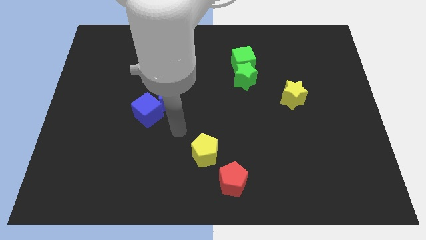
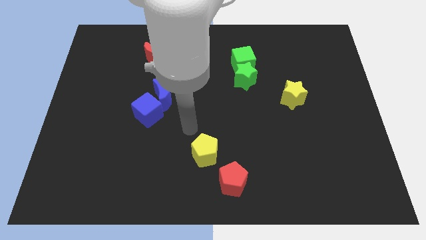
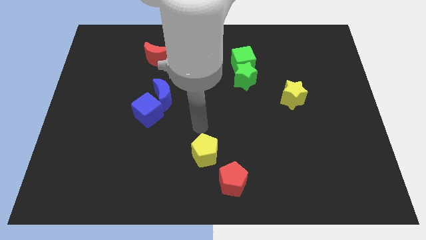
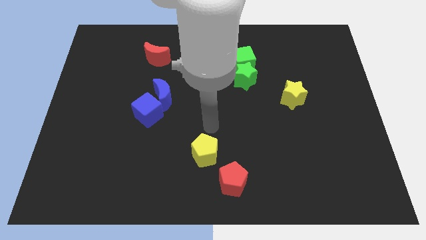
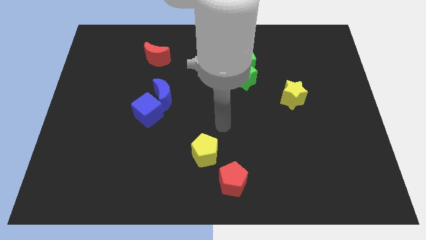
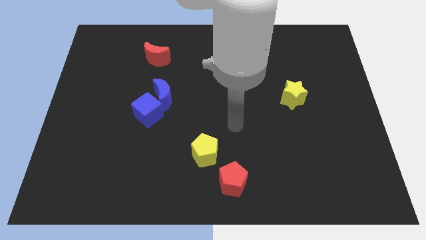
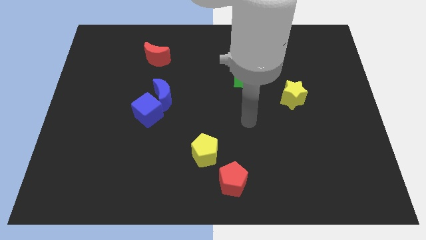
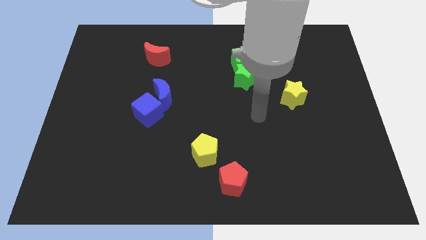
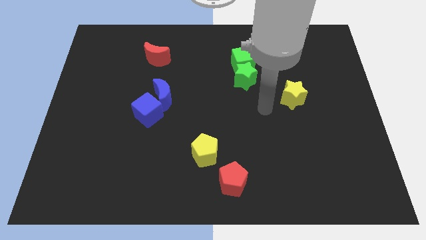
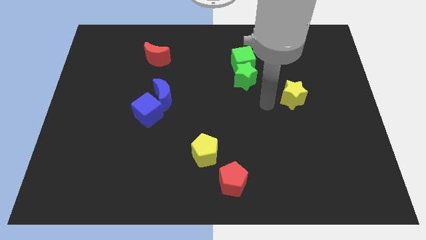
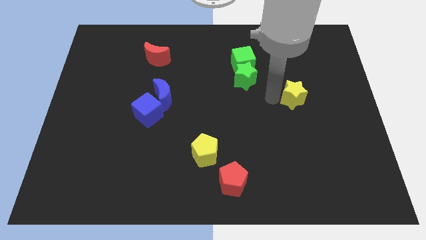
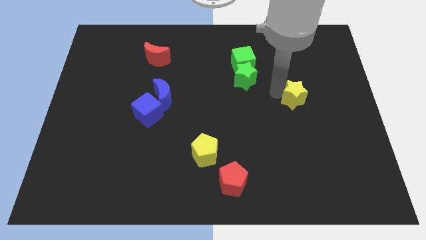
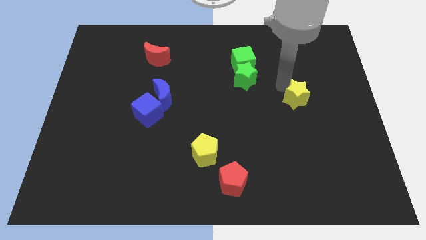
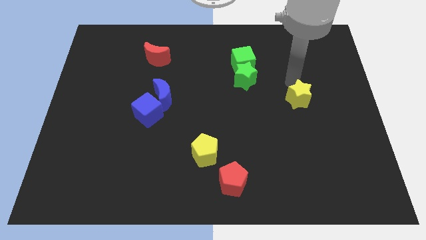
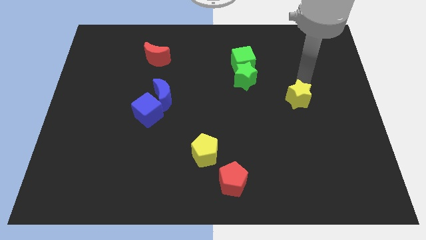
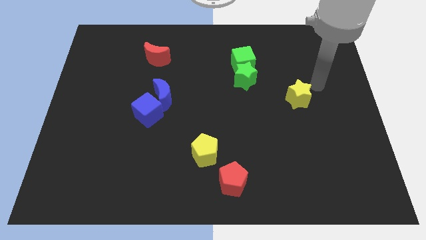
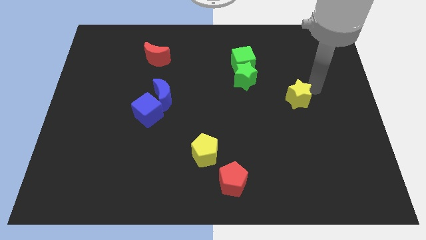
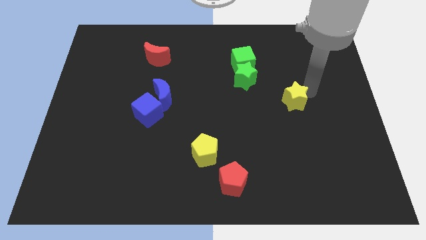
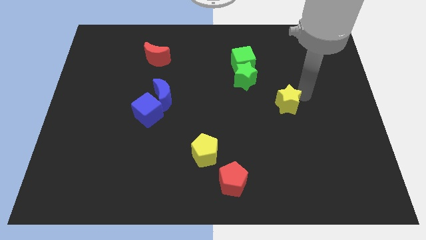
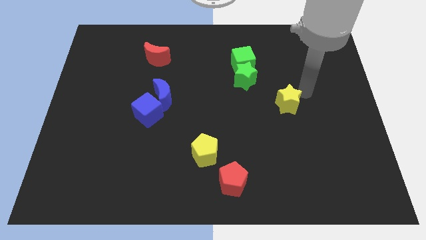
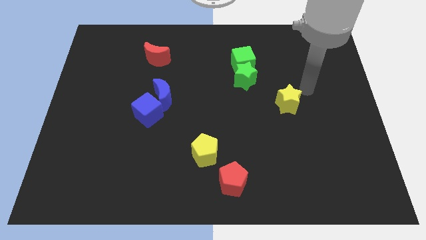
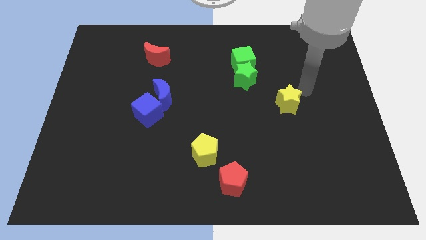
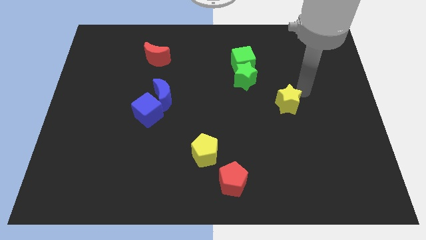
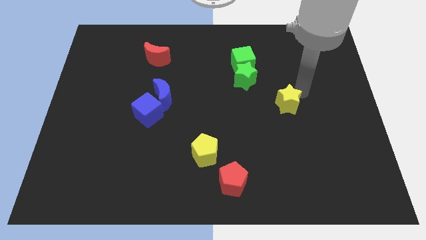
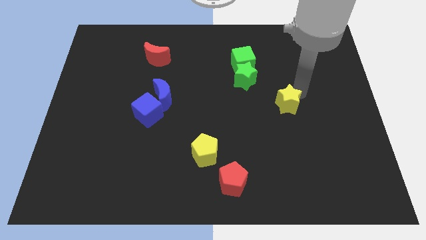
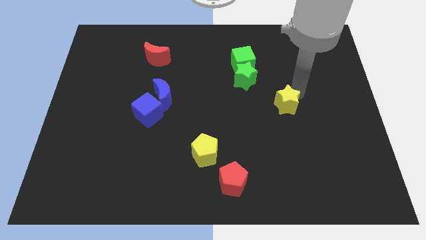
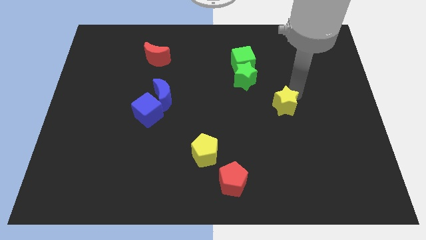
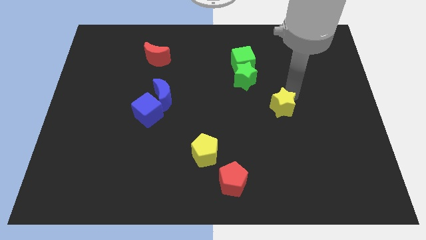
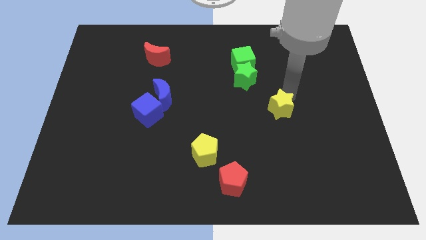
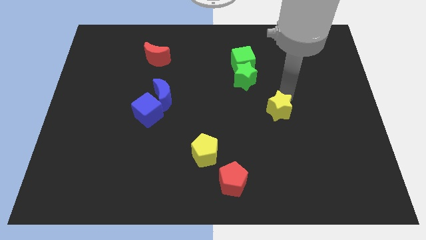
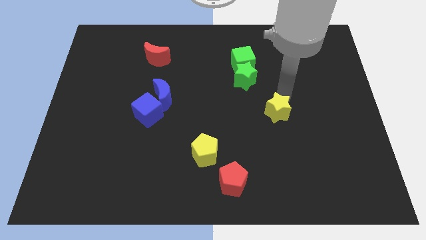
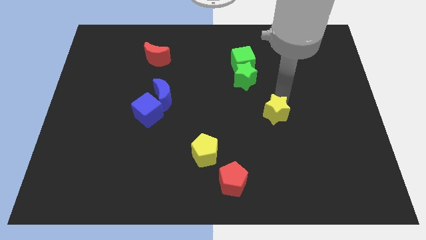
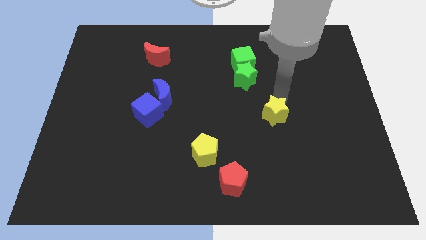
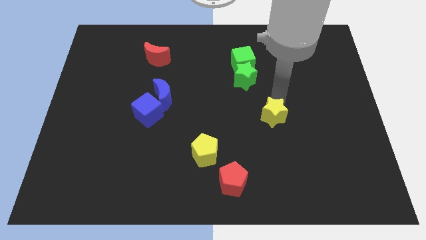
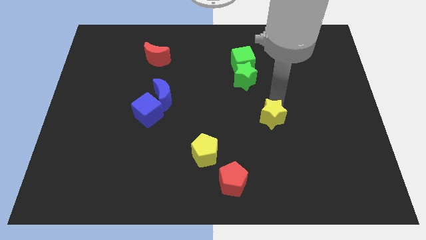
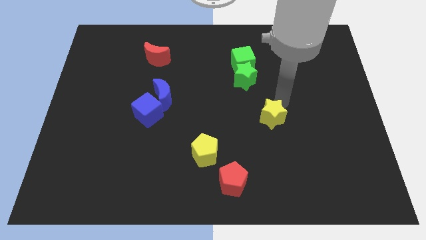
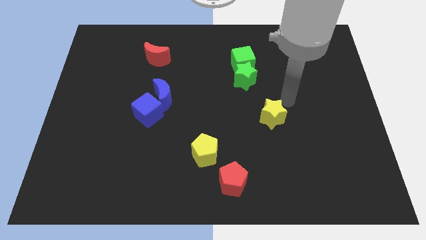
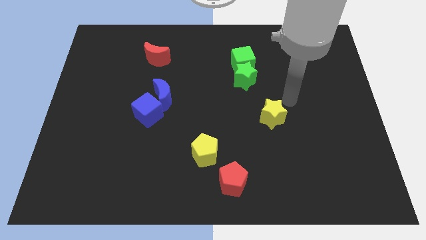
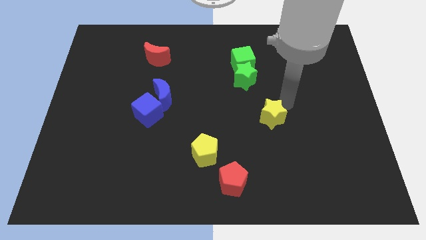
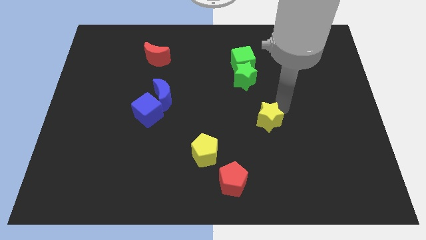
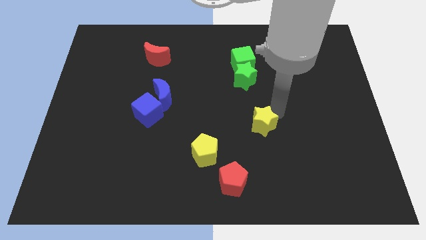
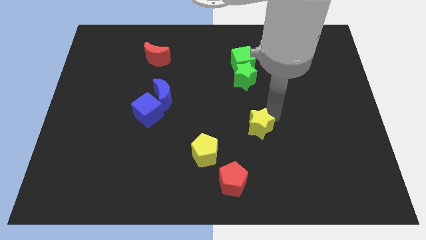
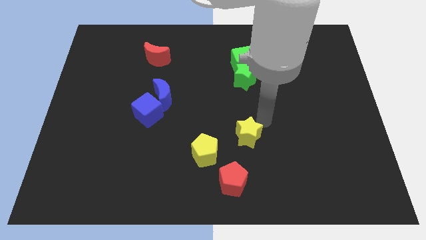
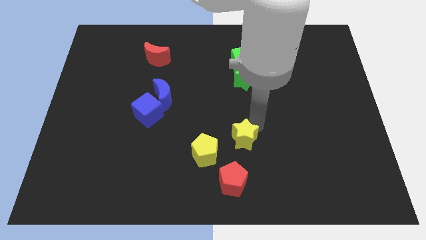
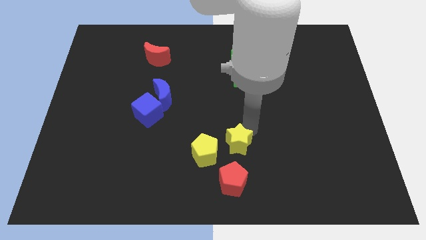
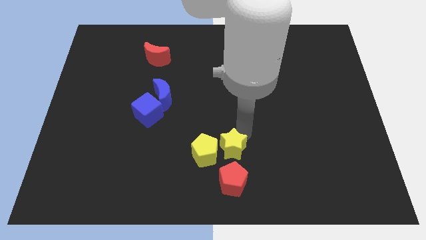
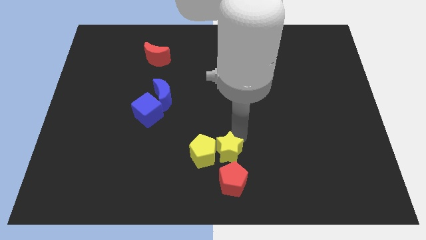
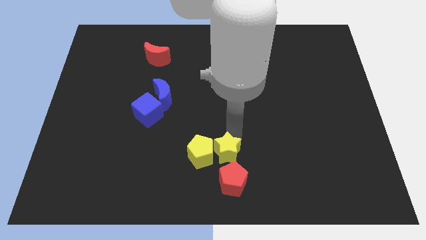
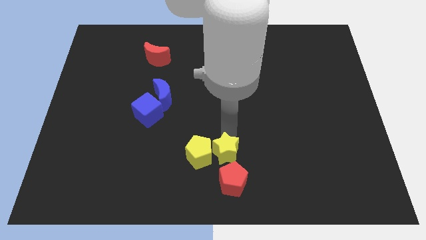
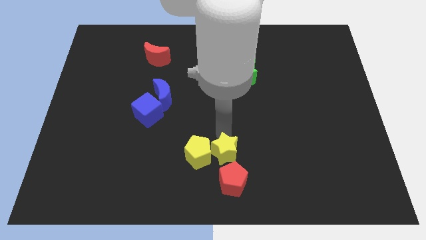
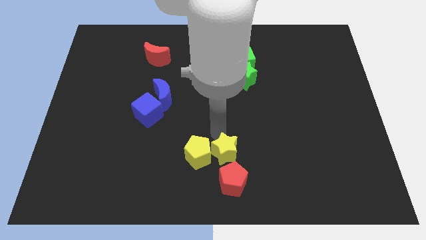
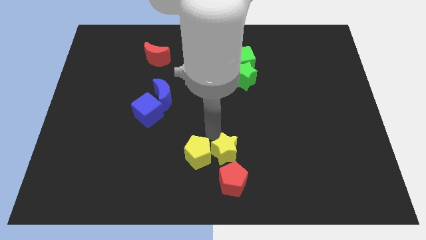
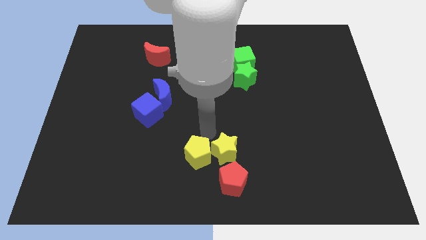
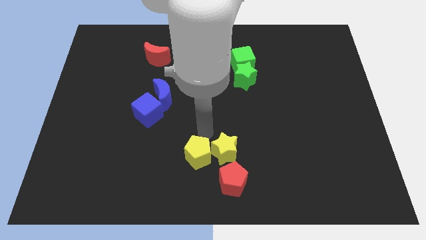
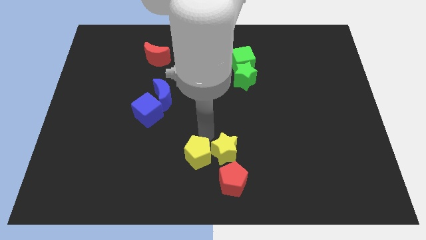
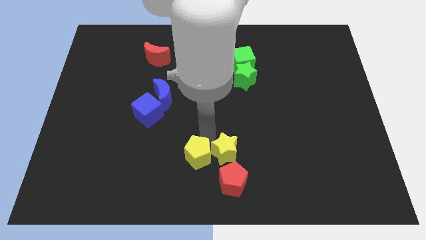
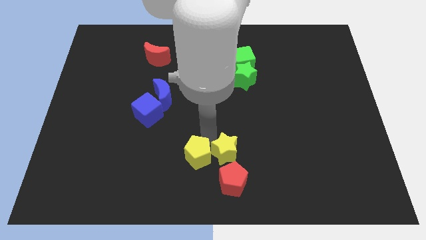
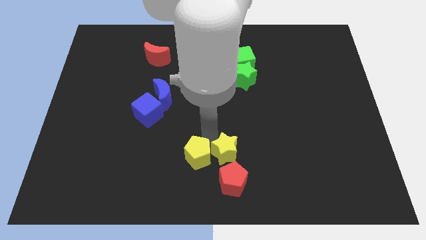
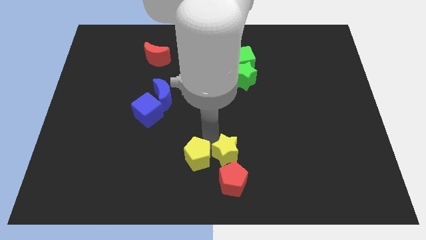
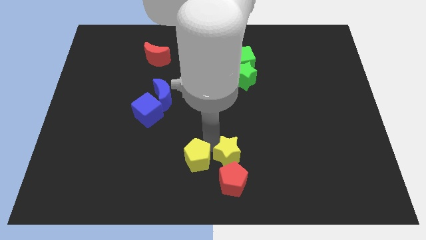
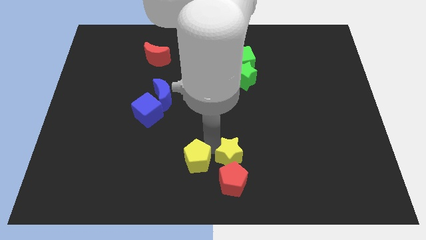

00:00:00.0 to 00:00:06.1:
slide the yellow star next to the red pentagon

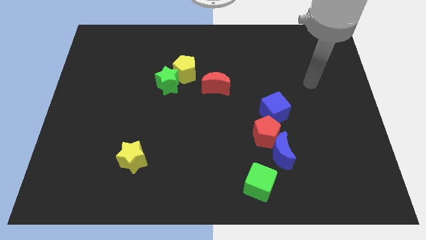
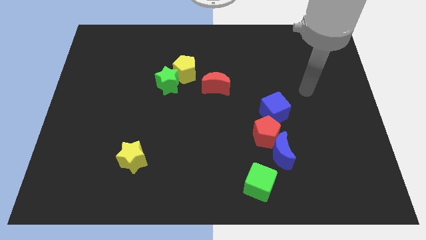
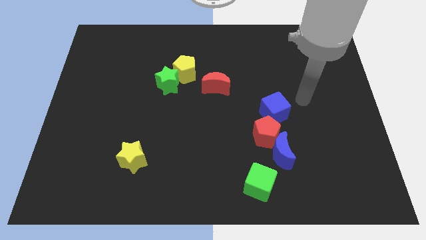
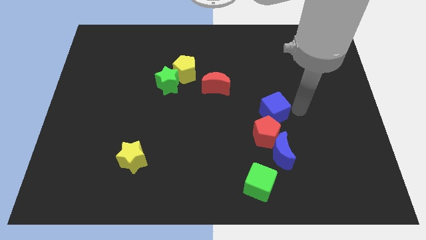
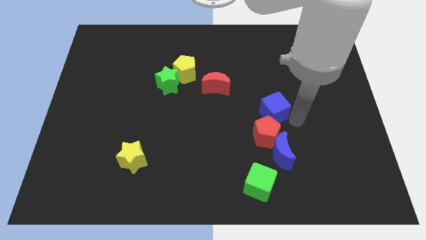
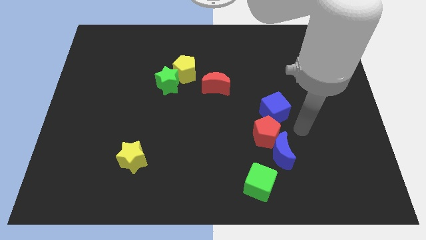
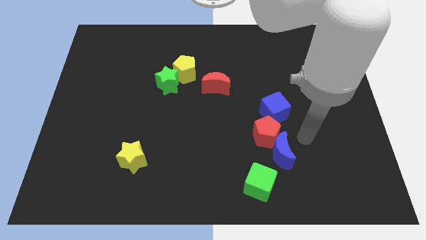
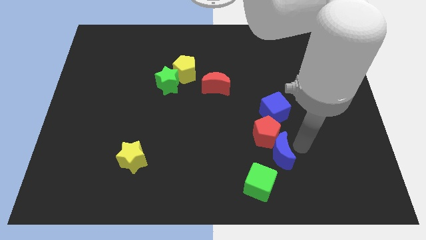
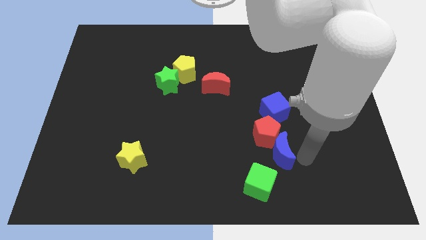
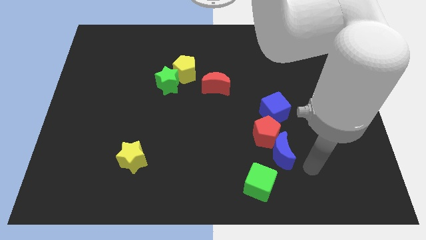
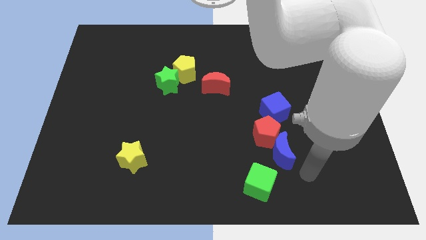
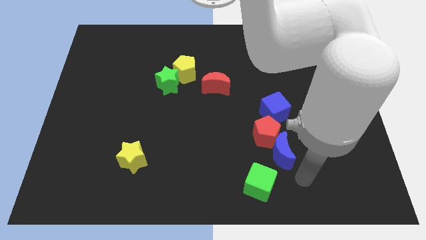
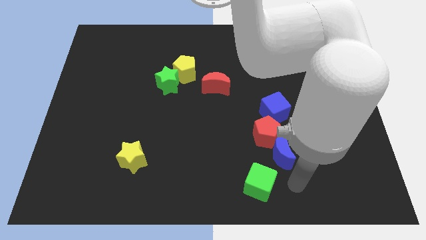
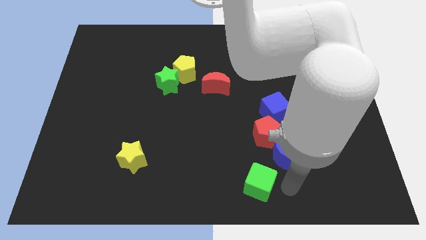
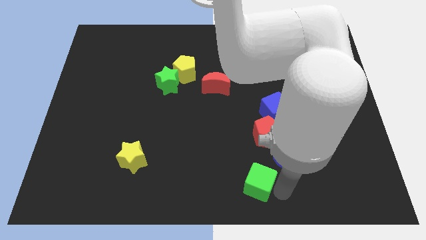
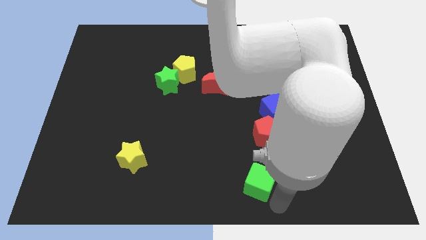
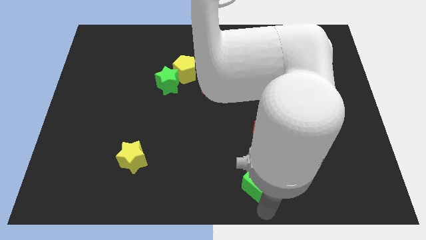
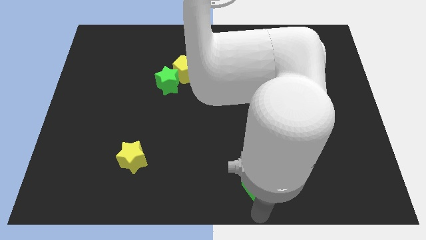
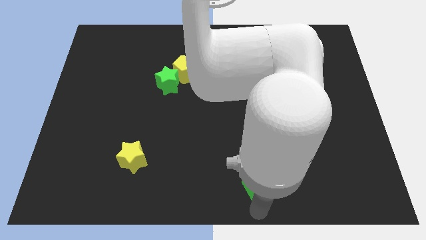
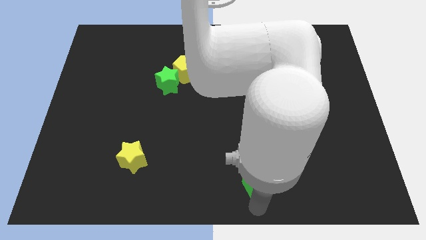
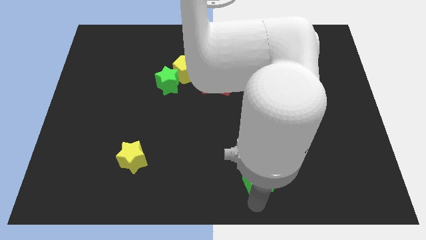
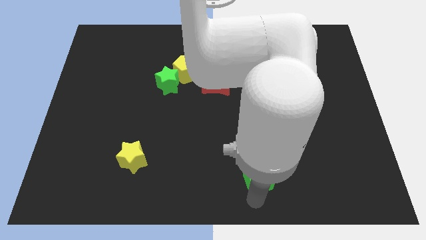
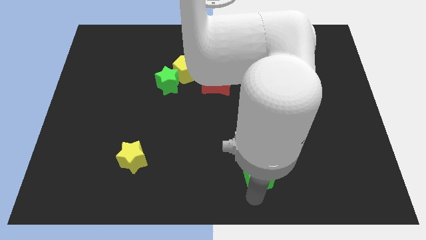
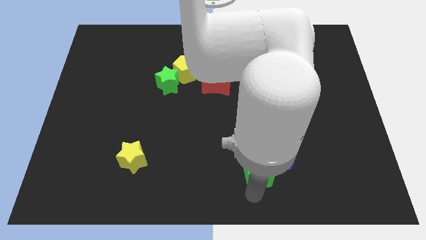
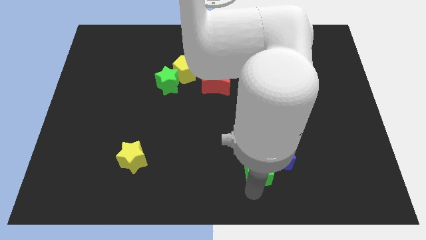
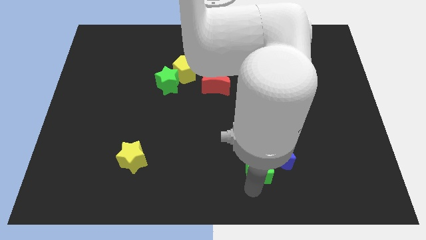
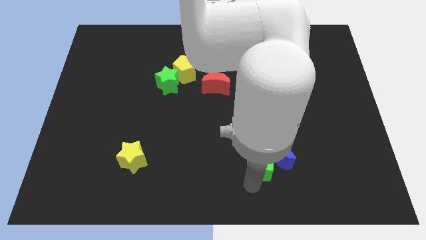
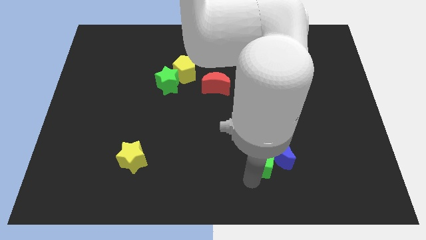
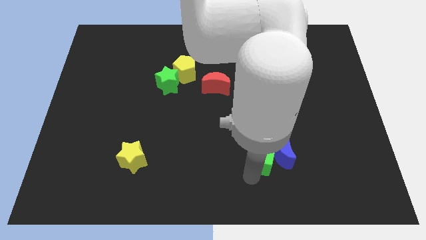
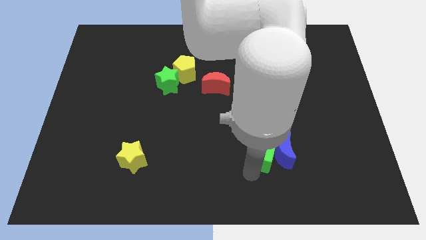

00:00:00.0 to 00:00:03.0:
move the green cube to the red pentagon
